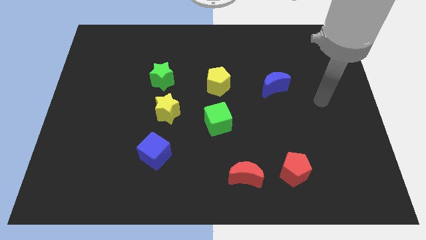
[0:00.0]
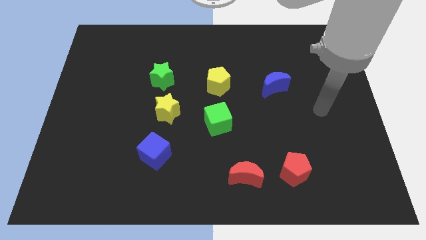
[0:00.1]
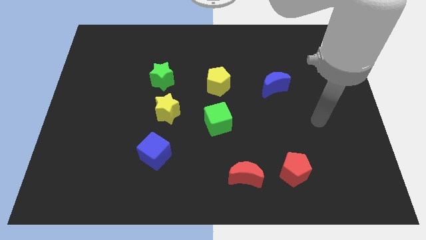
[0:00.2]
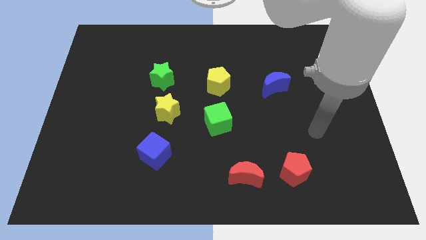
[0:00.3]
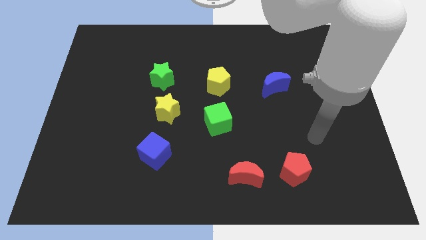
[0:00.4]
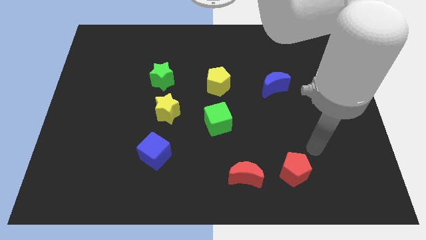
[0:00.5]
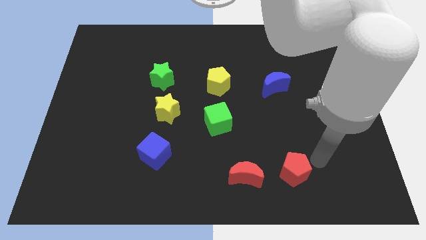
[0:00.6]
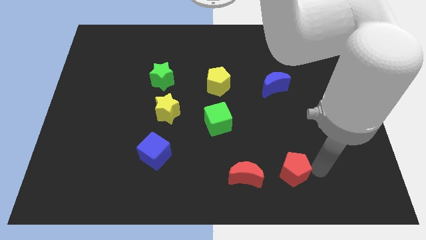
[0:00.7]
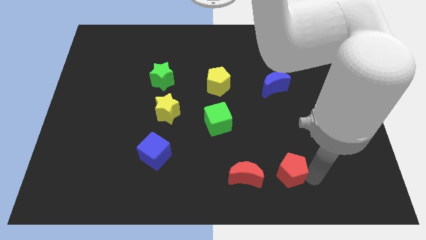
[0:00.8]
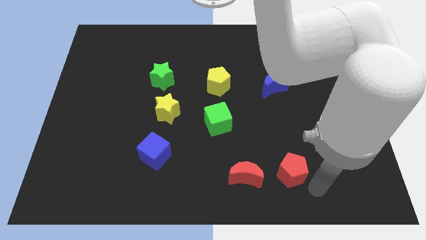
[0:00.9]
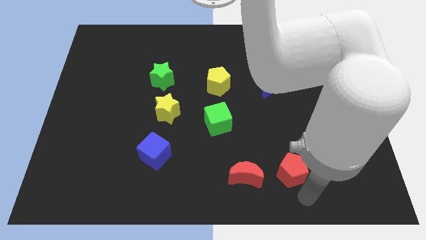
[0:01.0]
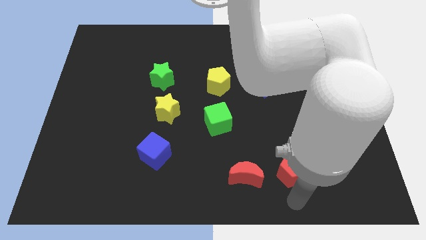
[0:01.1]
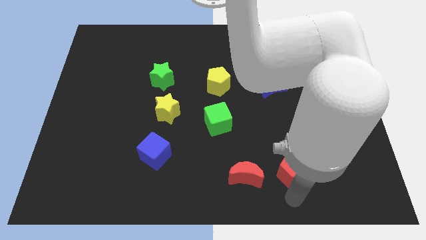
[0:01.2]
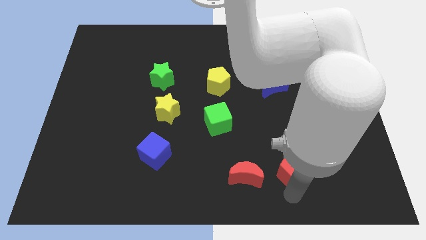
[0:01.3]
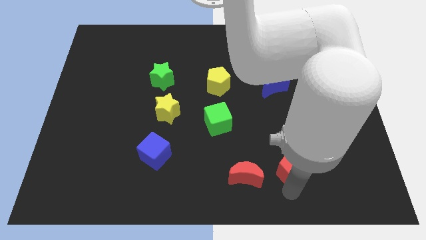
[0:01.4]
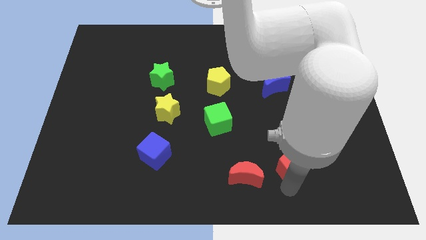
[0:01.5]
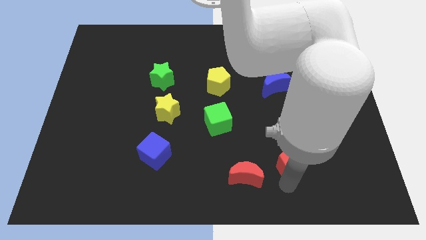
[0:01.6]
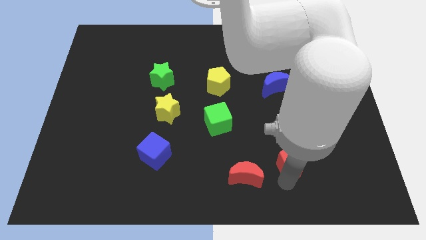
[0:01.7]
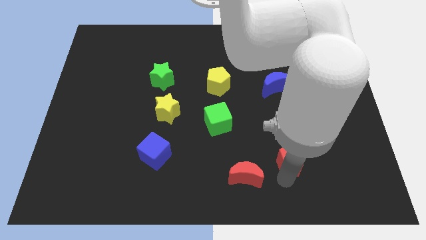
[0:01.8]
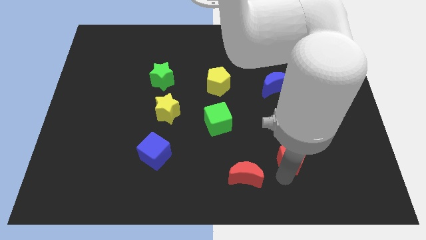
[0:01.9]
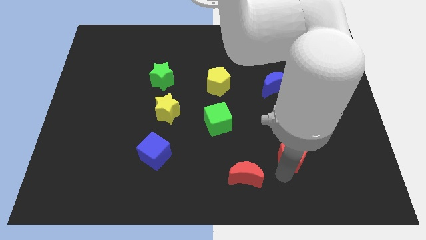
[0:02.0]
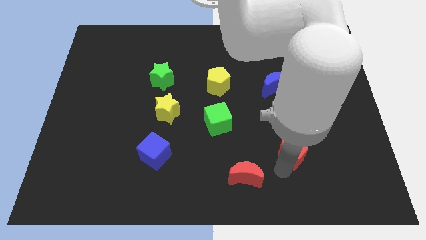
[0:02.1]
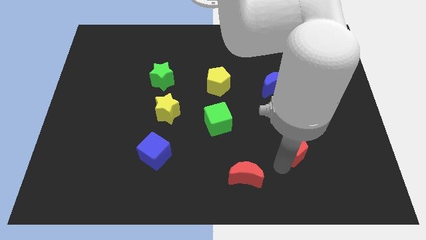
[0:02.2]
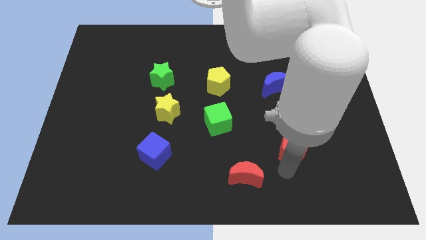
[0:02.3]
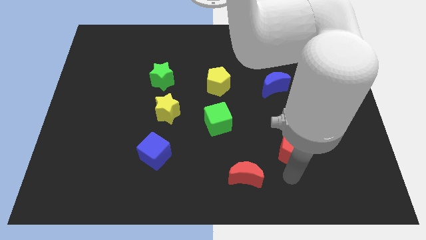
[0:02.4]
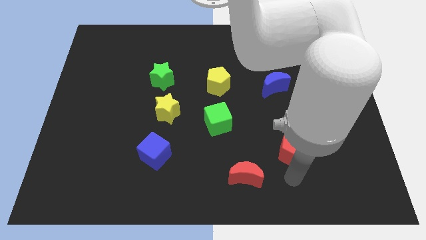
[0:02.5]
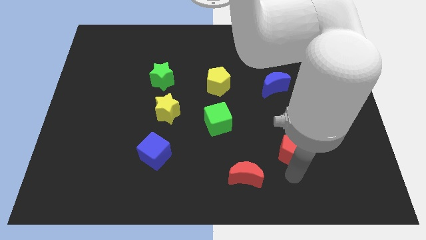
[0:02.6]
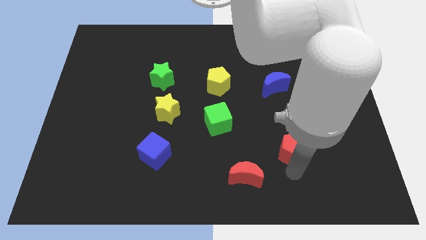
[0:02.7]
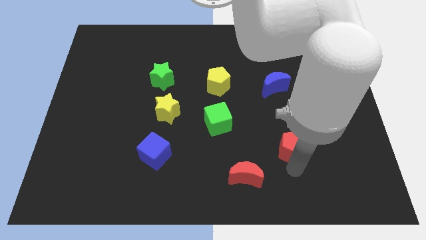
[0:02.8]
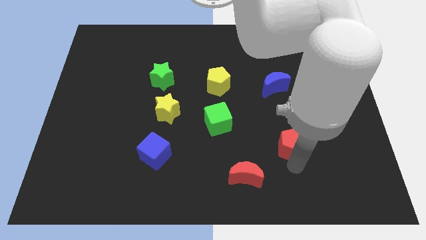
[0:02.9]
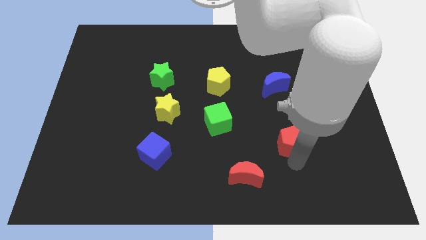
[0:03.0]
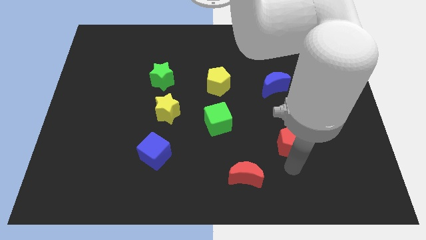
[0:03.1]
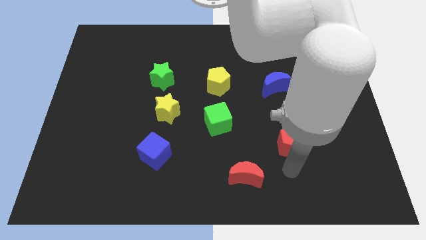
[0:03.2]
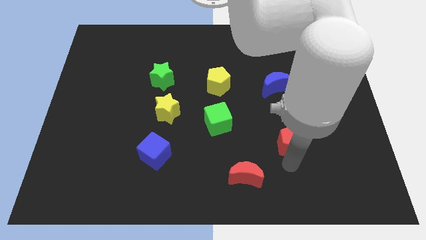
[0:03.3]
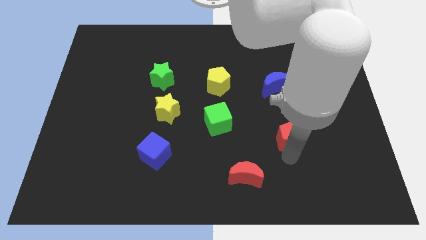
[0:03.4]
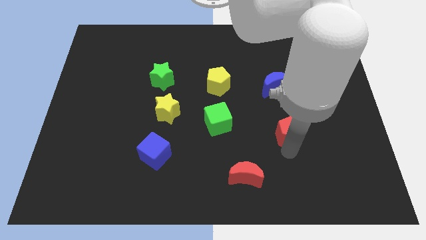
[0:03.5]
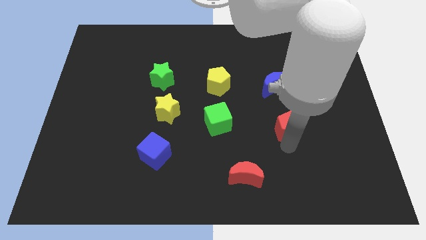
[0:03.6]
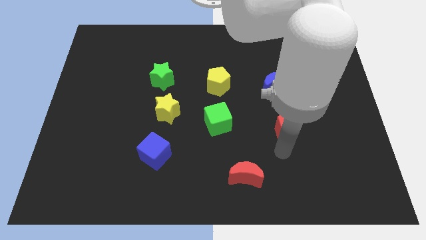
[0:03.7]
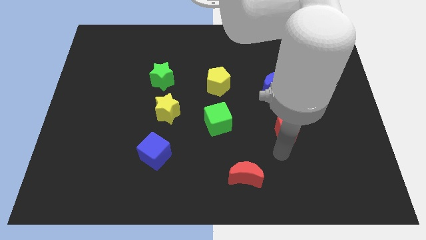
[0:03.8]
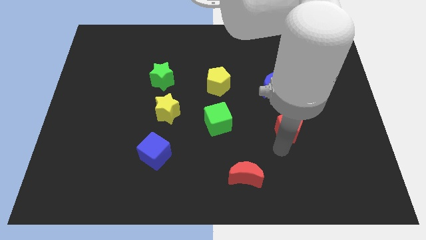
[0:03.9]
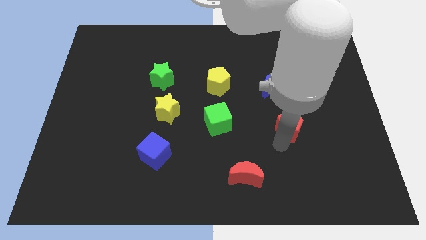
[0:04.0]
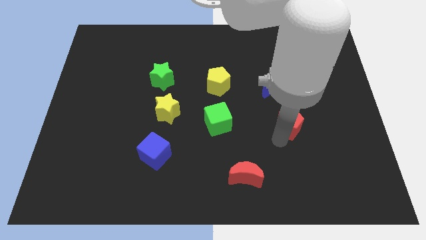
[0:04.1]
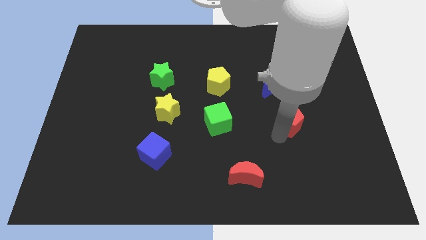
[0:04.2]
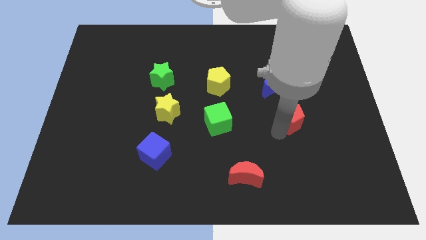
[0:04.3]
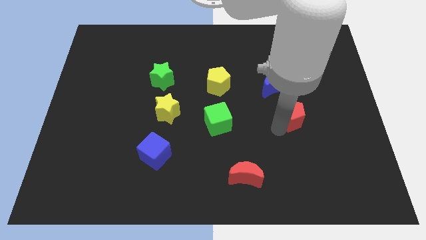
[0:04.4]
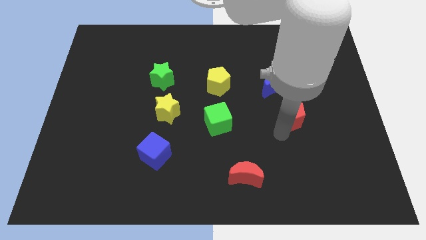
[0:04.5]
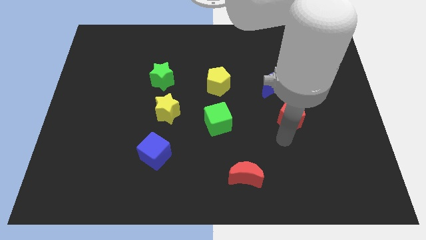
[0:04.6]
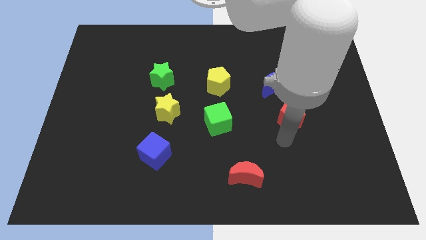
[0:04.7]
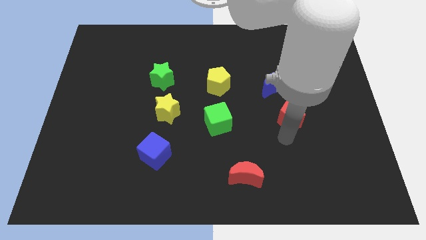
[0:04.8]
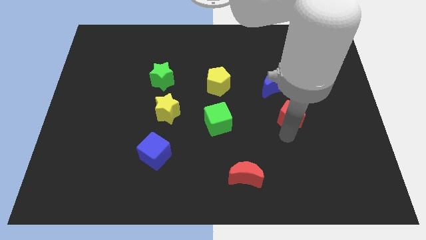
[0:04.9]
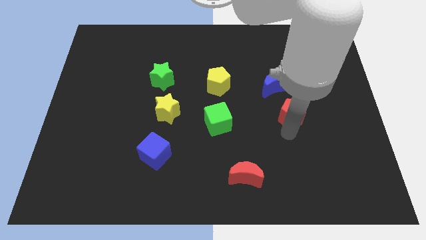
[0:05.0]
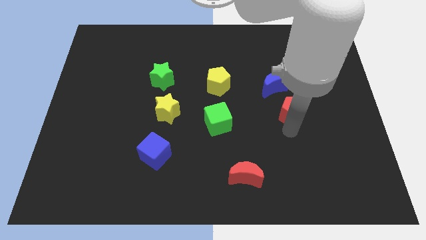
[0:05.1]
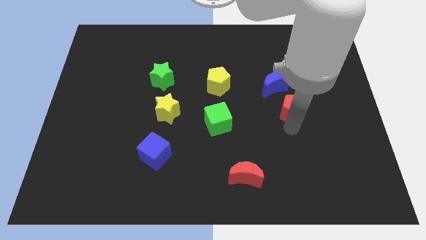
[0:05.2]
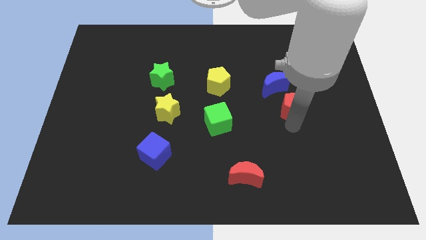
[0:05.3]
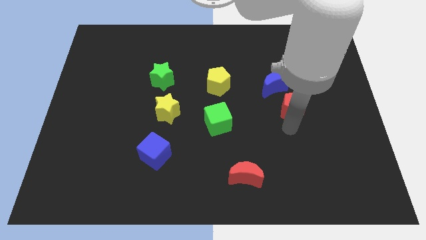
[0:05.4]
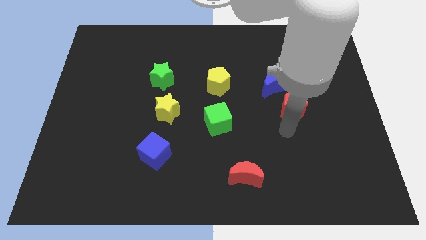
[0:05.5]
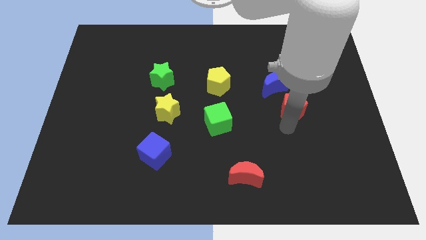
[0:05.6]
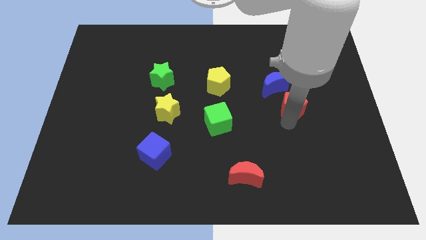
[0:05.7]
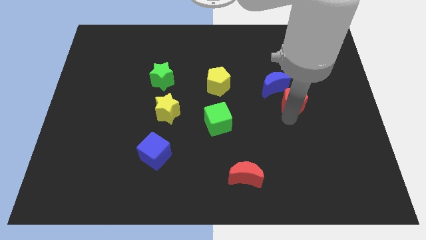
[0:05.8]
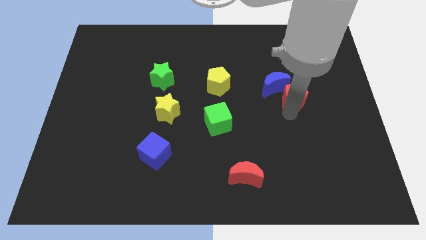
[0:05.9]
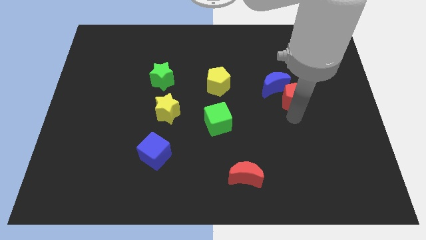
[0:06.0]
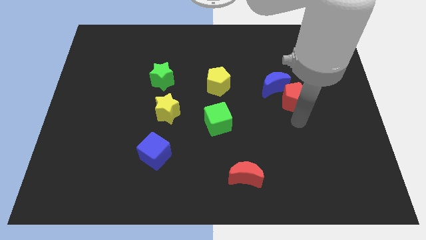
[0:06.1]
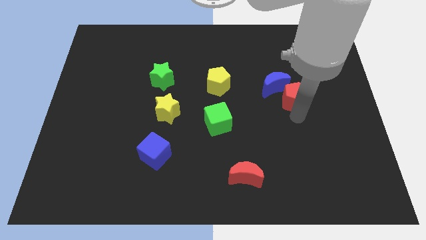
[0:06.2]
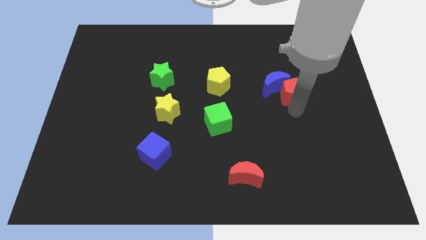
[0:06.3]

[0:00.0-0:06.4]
slide the red pentagon up

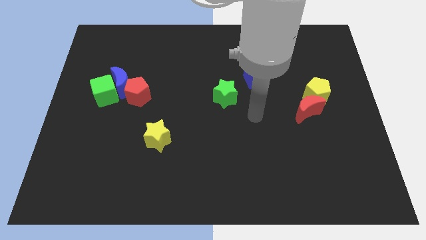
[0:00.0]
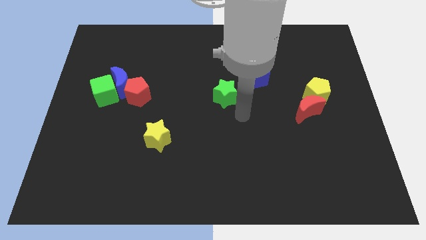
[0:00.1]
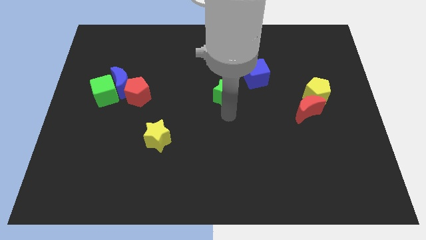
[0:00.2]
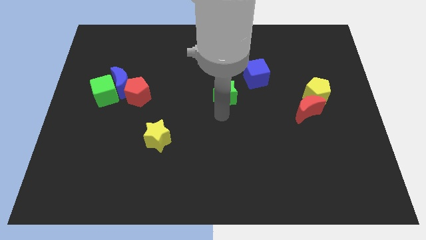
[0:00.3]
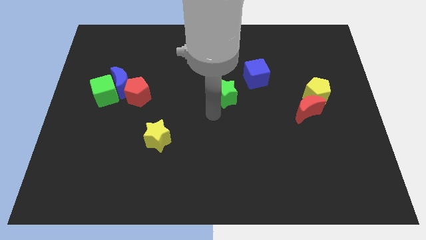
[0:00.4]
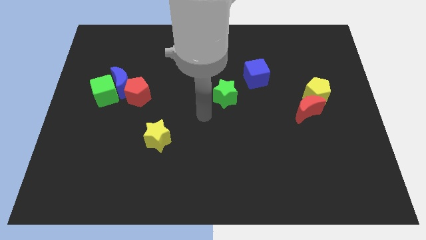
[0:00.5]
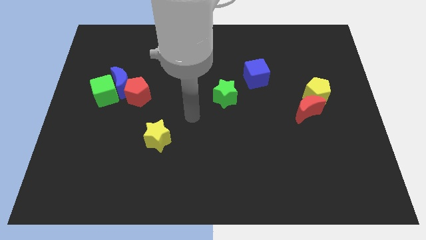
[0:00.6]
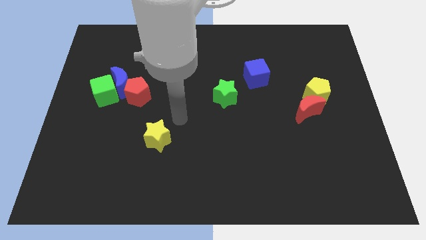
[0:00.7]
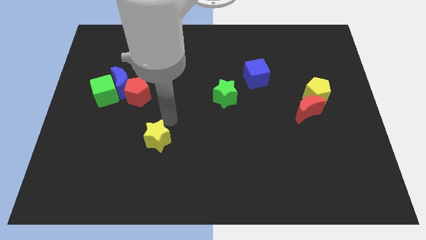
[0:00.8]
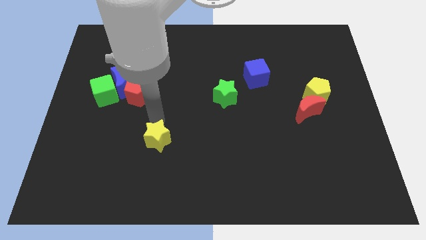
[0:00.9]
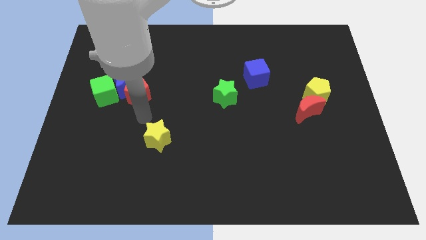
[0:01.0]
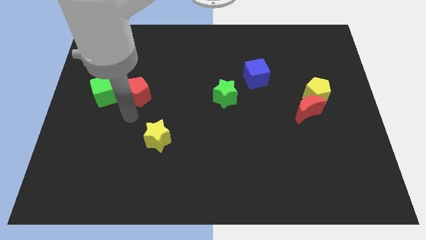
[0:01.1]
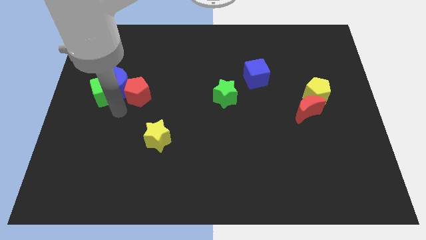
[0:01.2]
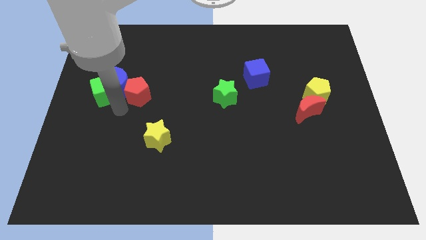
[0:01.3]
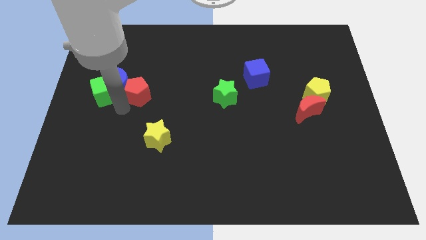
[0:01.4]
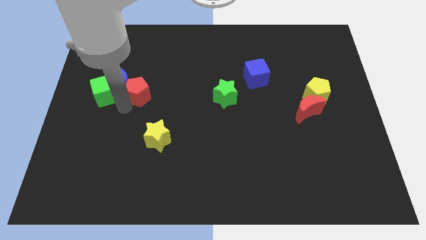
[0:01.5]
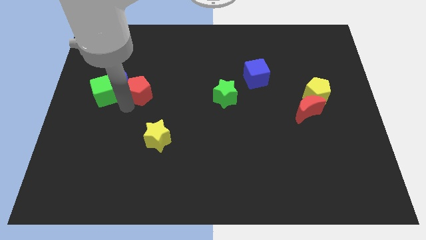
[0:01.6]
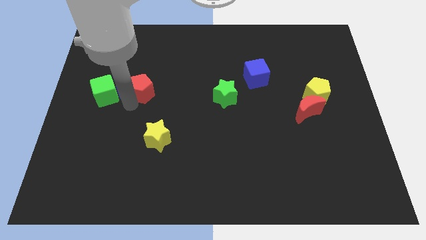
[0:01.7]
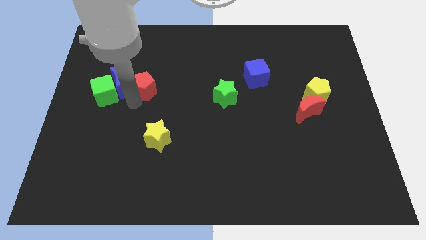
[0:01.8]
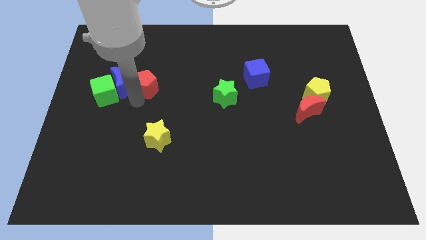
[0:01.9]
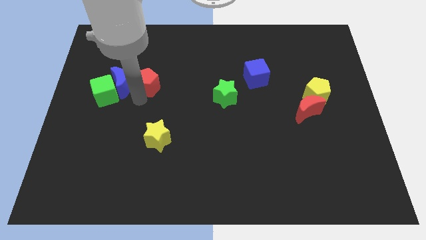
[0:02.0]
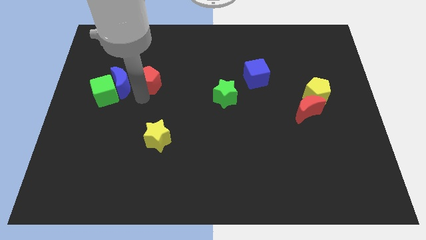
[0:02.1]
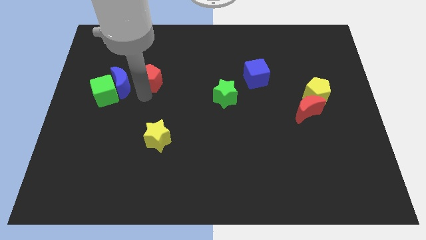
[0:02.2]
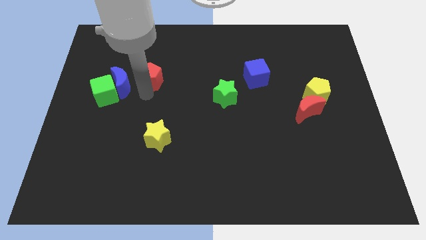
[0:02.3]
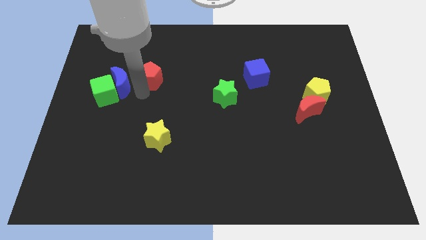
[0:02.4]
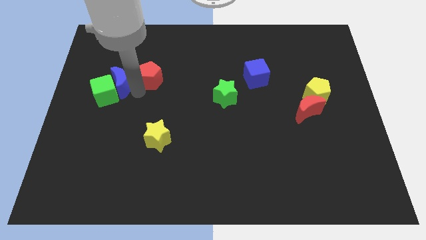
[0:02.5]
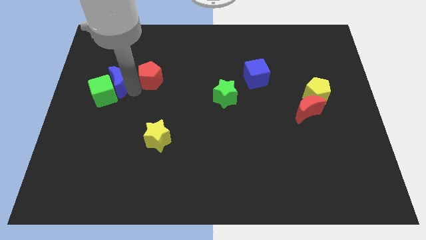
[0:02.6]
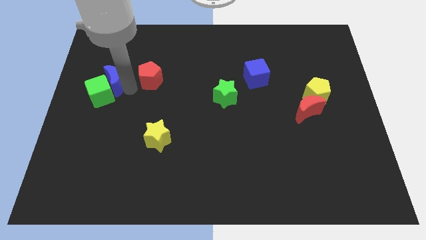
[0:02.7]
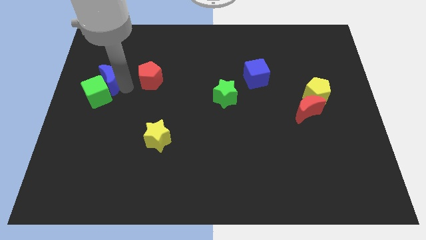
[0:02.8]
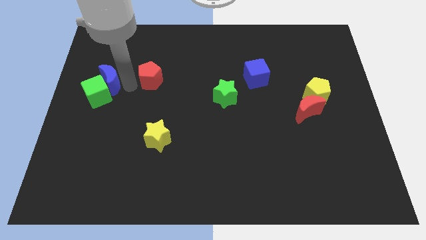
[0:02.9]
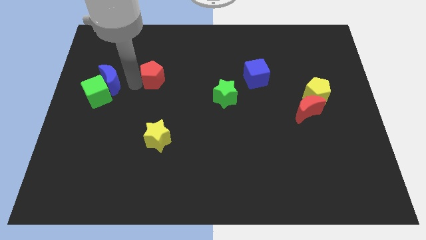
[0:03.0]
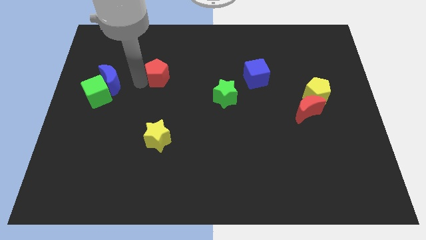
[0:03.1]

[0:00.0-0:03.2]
slightly slide the red pentagon diagonally up and to the right
